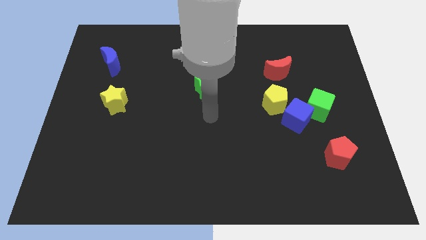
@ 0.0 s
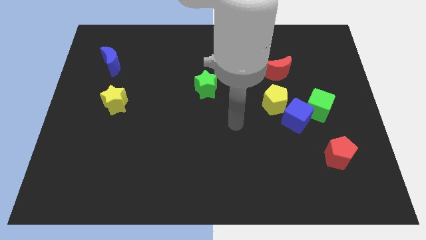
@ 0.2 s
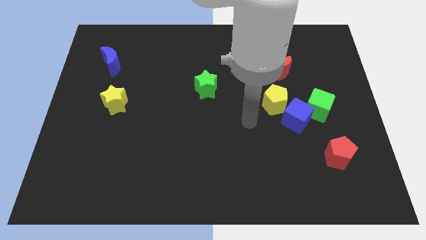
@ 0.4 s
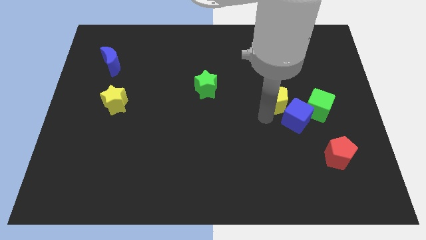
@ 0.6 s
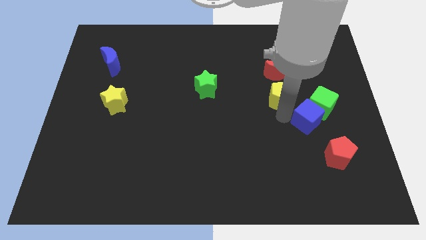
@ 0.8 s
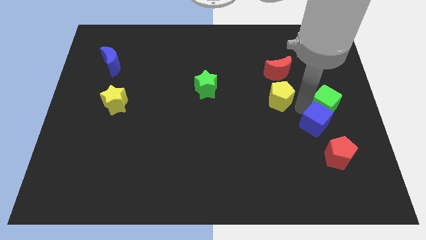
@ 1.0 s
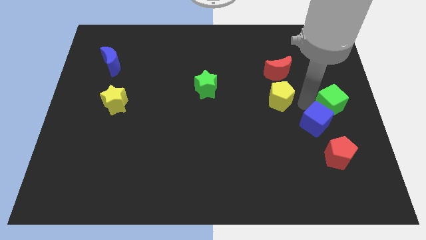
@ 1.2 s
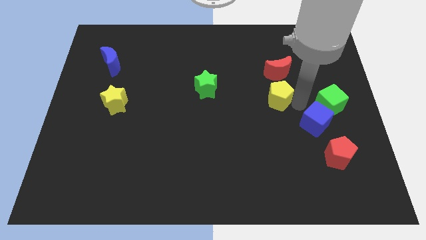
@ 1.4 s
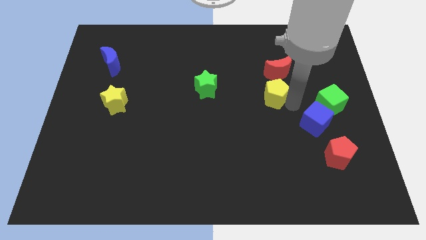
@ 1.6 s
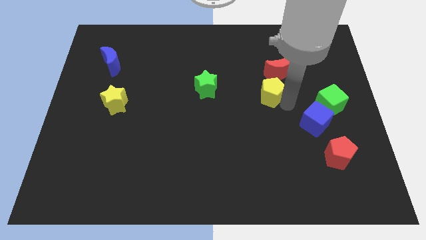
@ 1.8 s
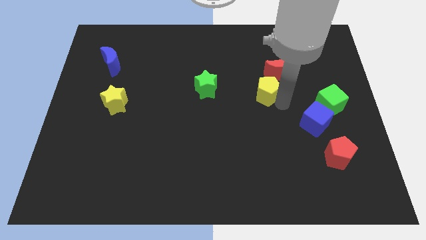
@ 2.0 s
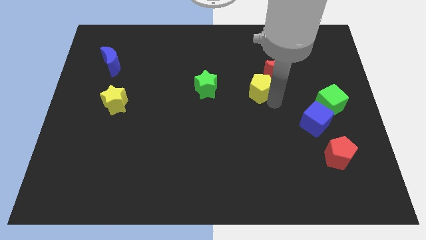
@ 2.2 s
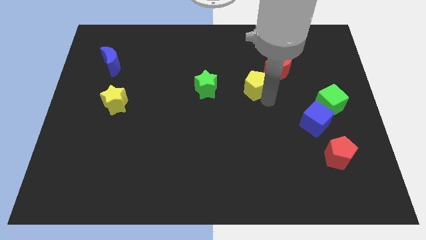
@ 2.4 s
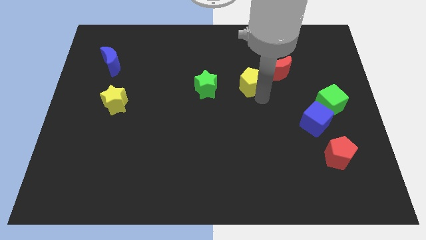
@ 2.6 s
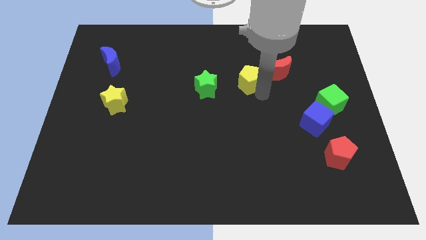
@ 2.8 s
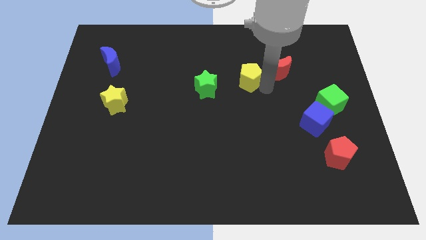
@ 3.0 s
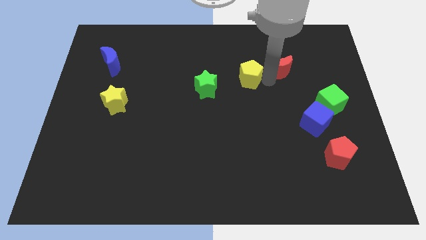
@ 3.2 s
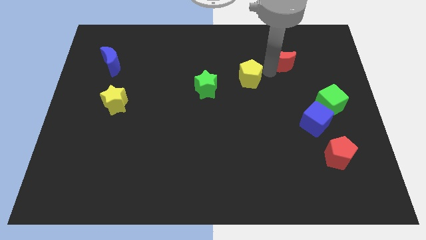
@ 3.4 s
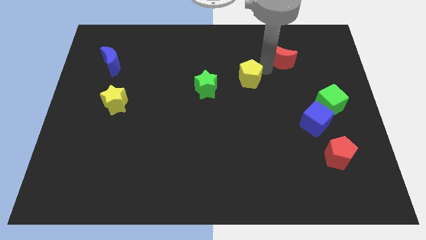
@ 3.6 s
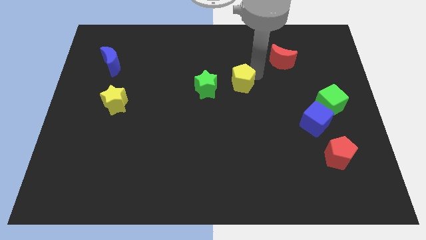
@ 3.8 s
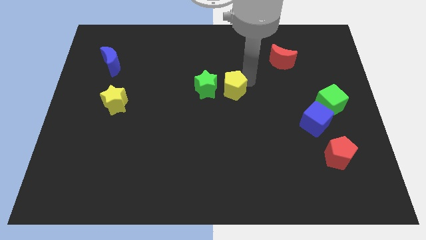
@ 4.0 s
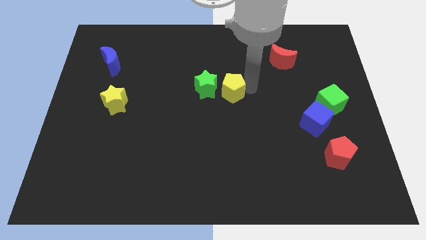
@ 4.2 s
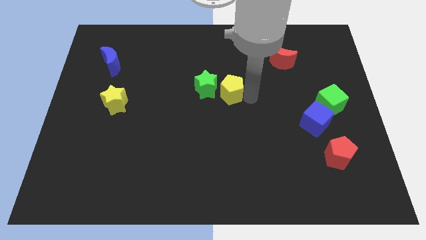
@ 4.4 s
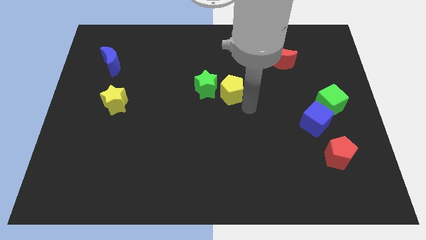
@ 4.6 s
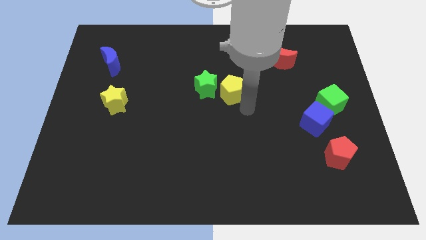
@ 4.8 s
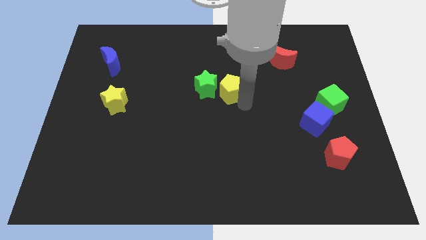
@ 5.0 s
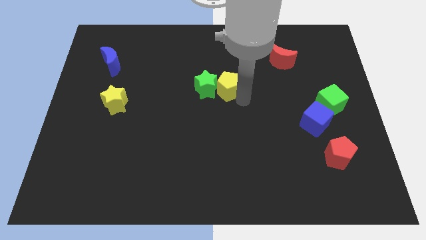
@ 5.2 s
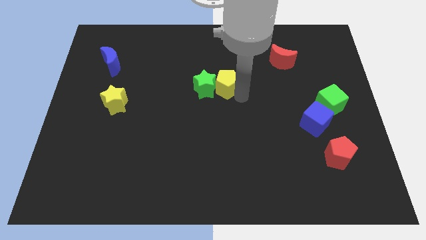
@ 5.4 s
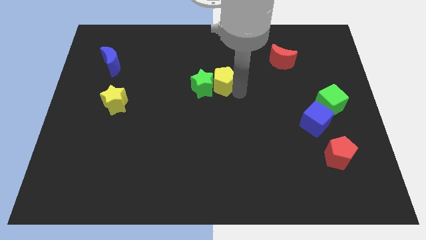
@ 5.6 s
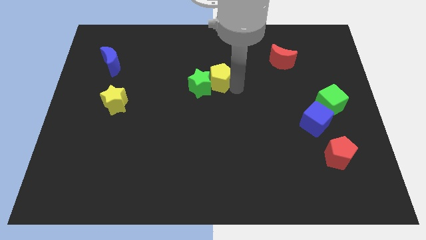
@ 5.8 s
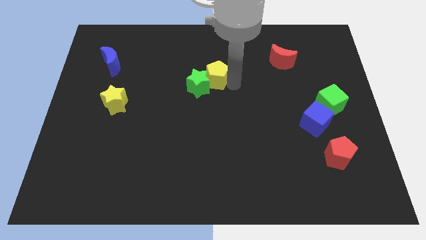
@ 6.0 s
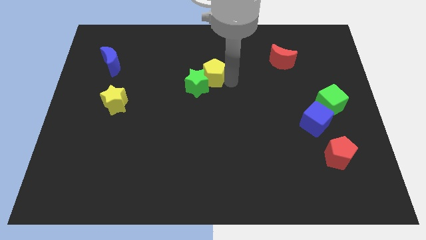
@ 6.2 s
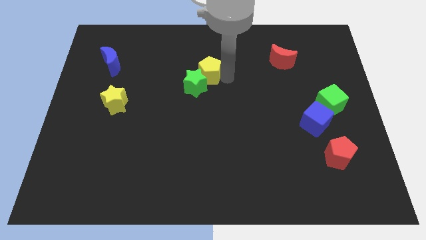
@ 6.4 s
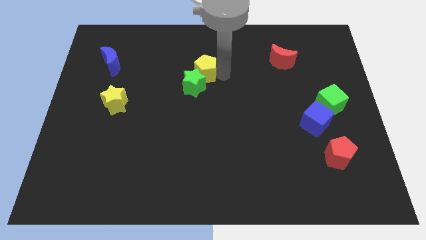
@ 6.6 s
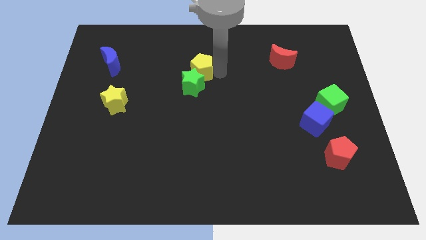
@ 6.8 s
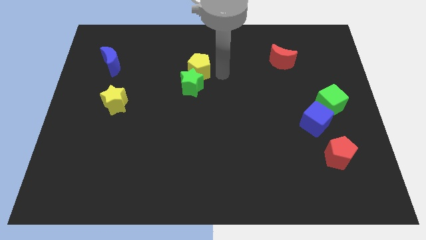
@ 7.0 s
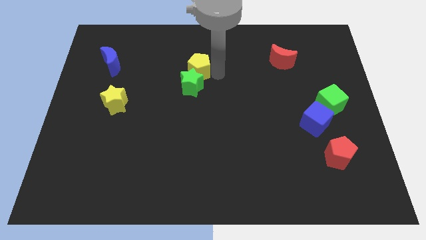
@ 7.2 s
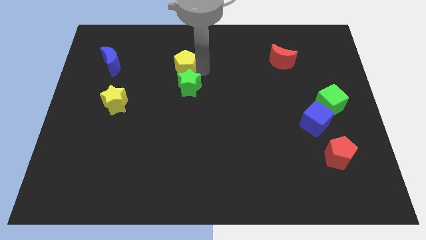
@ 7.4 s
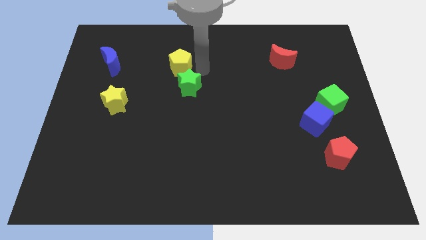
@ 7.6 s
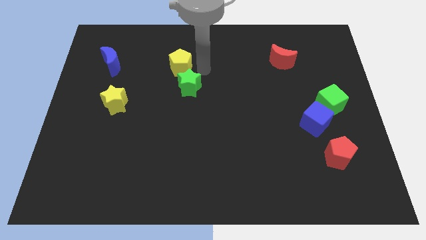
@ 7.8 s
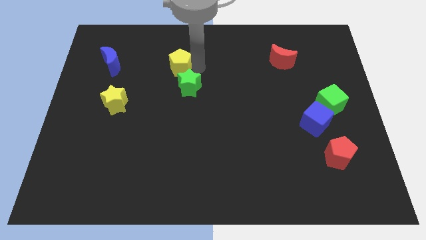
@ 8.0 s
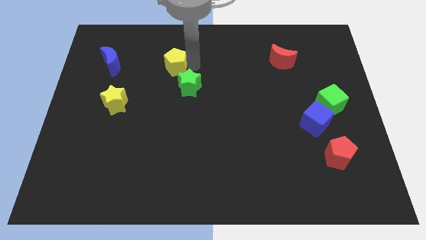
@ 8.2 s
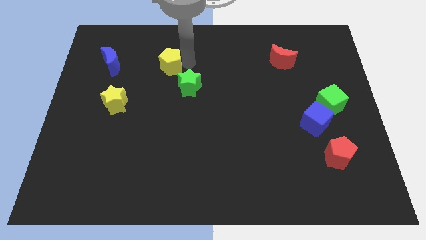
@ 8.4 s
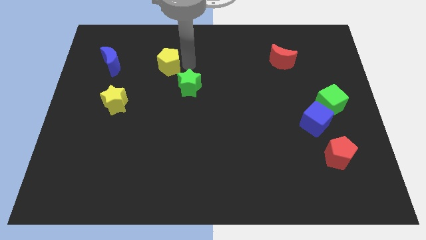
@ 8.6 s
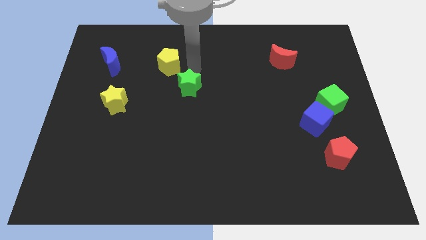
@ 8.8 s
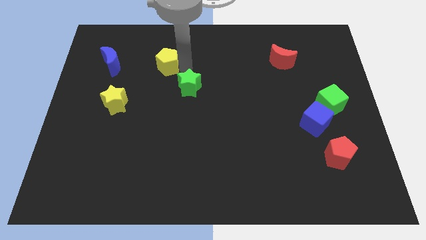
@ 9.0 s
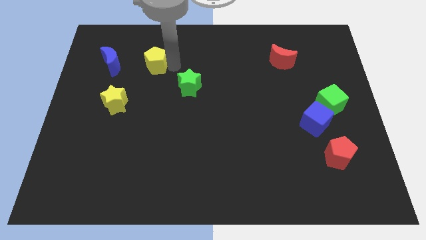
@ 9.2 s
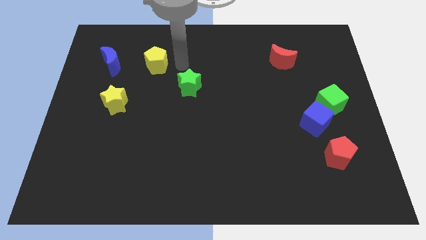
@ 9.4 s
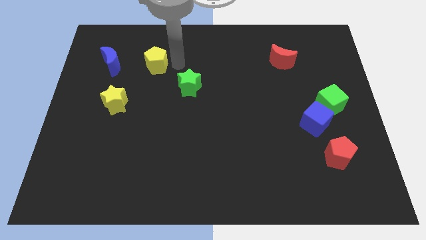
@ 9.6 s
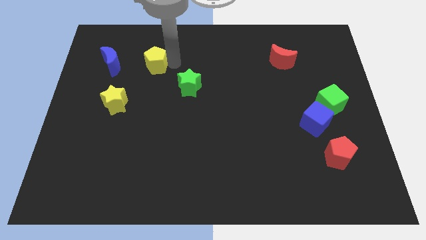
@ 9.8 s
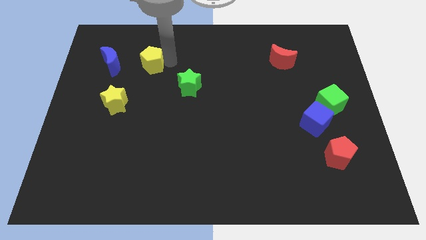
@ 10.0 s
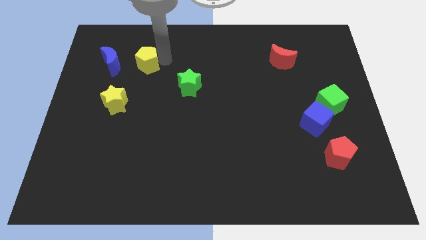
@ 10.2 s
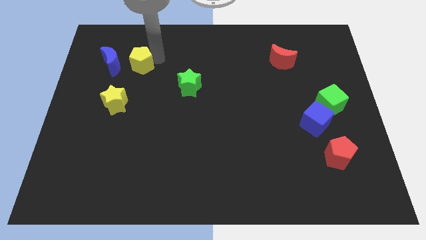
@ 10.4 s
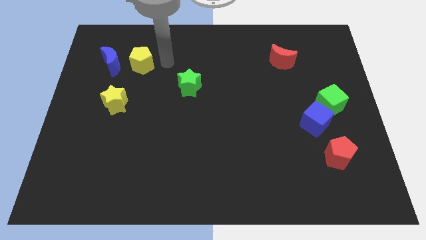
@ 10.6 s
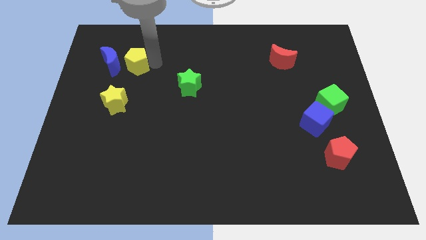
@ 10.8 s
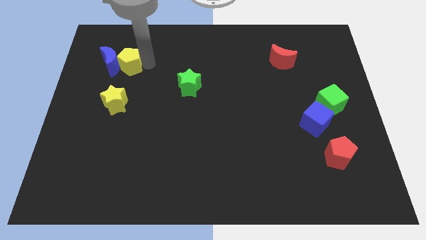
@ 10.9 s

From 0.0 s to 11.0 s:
move the yellow pentagon to the blue moon
